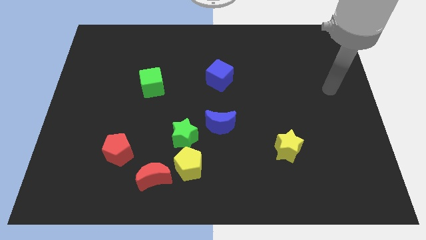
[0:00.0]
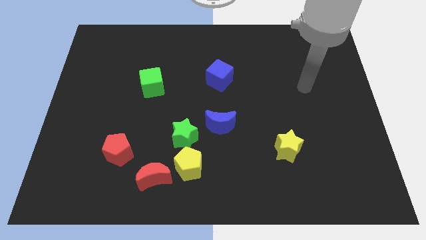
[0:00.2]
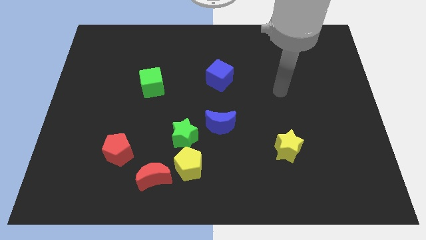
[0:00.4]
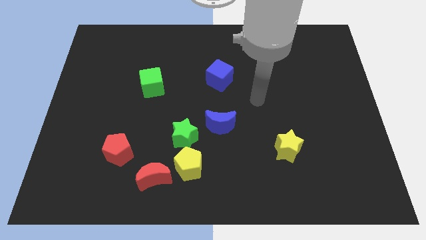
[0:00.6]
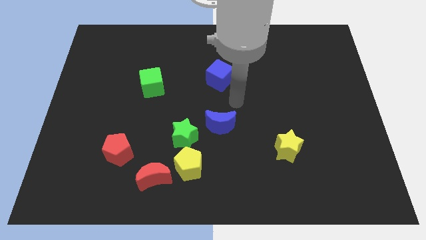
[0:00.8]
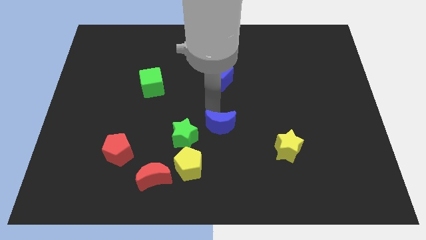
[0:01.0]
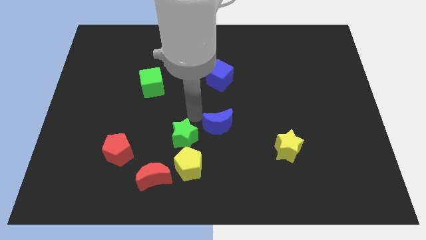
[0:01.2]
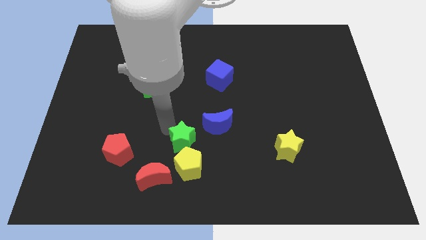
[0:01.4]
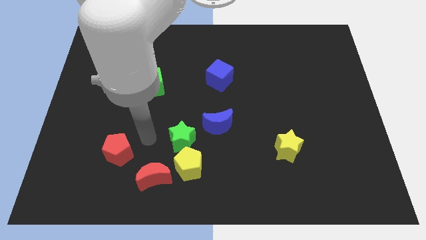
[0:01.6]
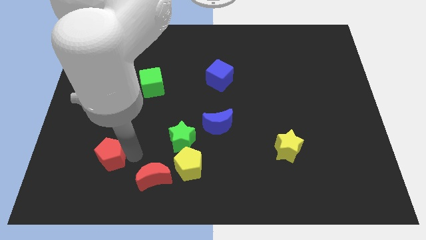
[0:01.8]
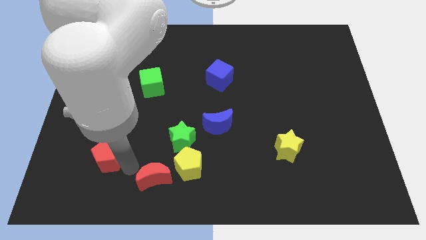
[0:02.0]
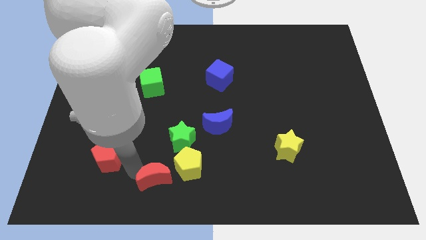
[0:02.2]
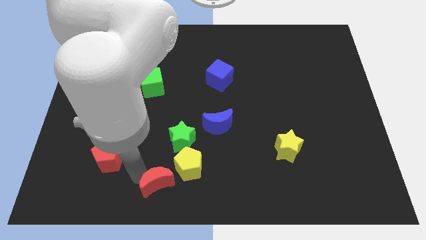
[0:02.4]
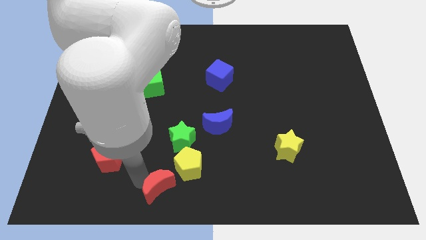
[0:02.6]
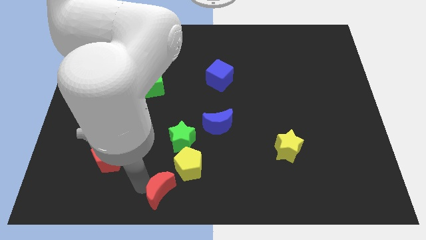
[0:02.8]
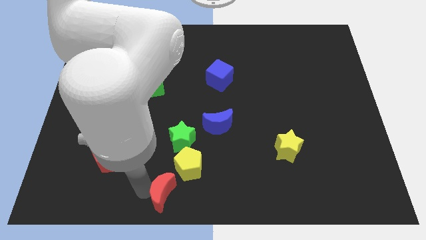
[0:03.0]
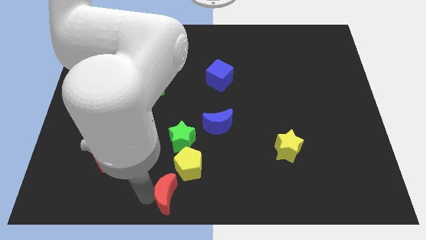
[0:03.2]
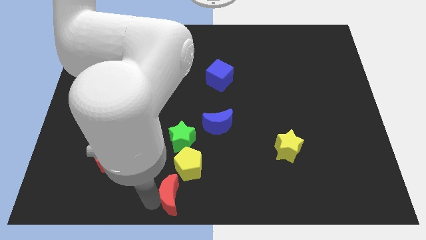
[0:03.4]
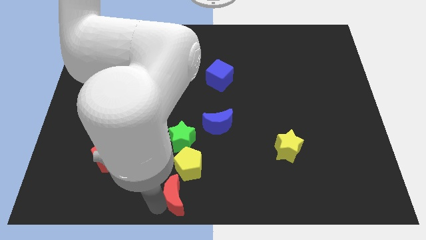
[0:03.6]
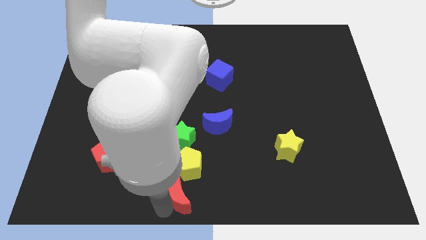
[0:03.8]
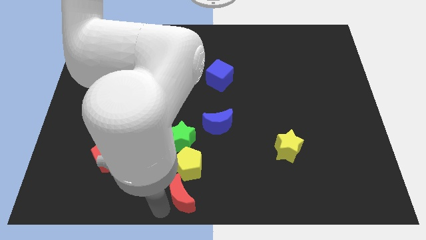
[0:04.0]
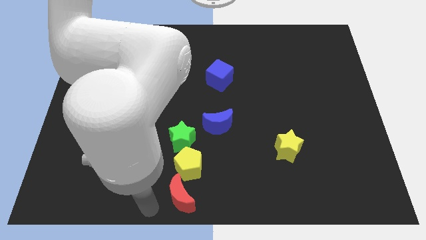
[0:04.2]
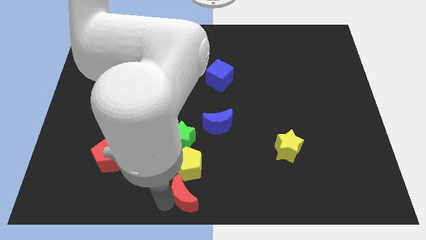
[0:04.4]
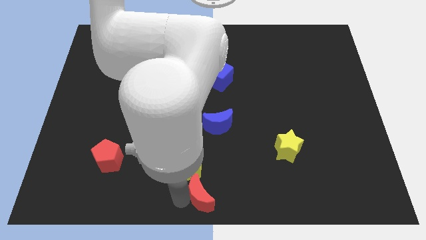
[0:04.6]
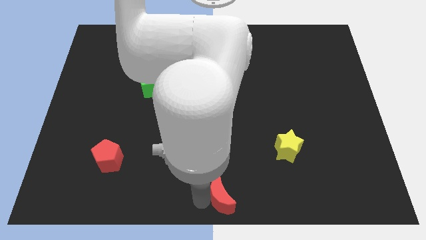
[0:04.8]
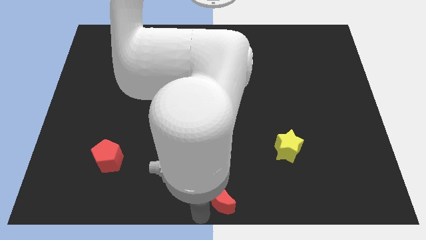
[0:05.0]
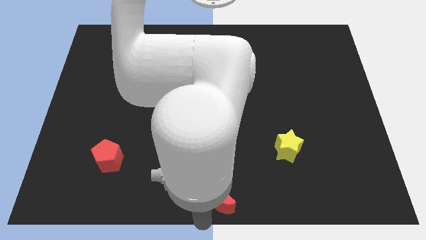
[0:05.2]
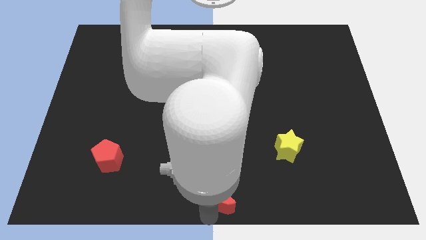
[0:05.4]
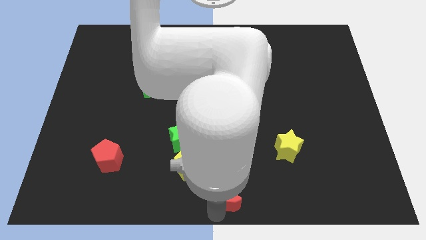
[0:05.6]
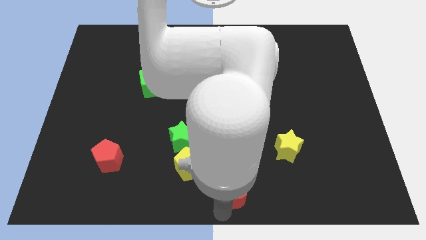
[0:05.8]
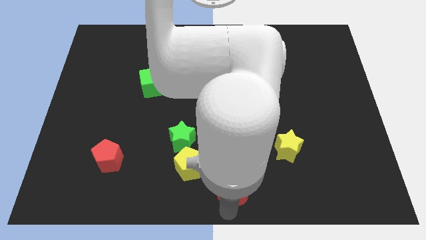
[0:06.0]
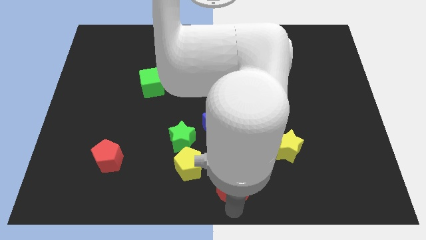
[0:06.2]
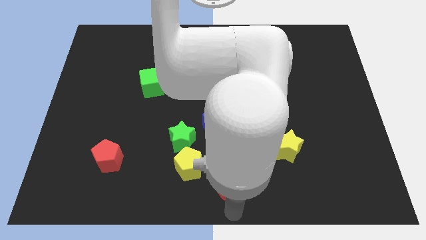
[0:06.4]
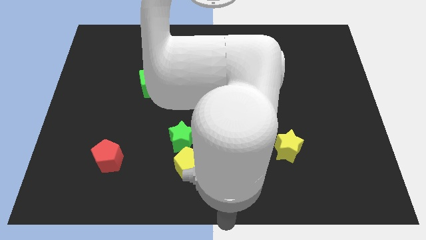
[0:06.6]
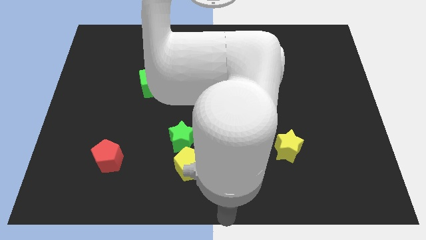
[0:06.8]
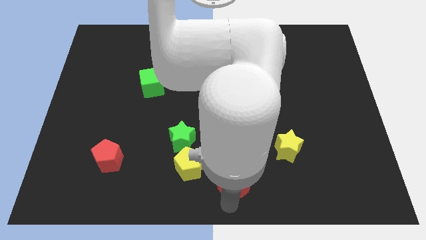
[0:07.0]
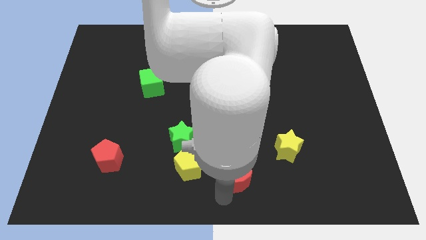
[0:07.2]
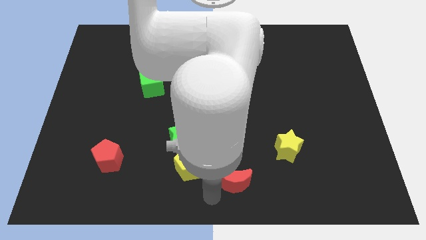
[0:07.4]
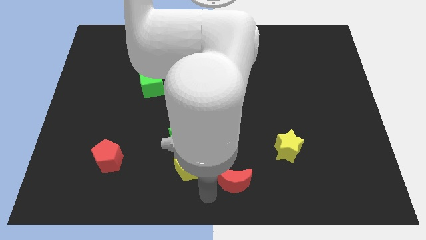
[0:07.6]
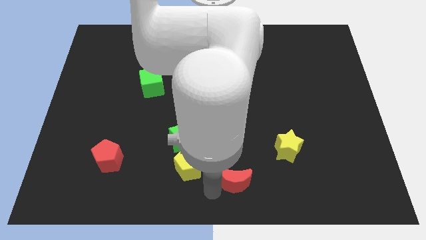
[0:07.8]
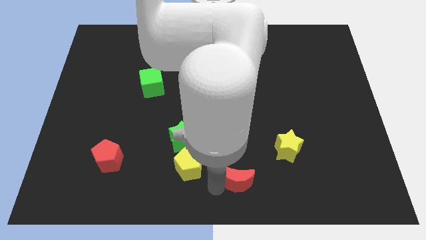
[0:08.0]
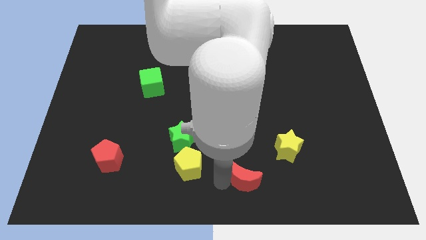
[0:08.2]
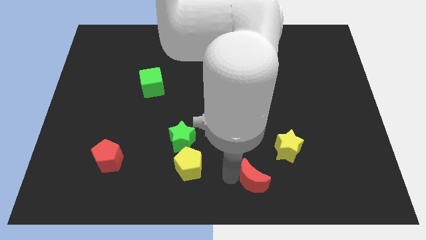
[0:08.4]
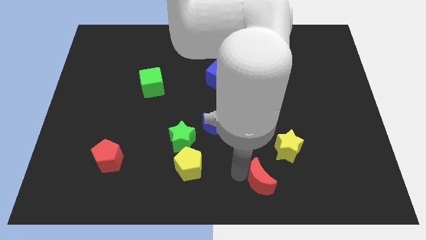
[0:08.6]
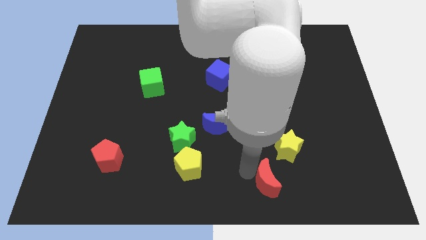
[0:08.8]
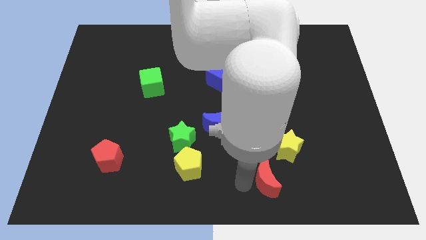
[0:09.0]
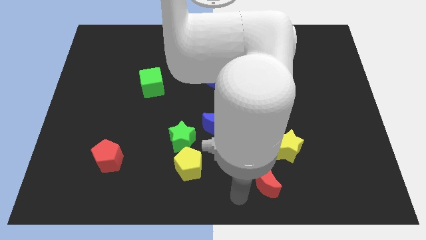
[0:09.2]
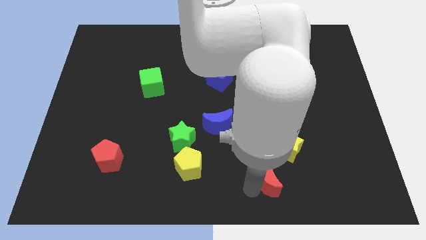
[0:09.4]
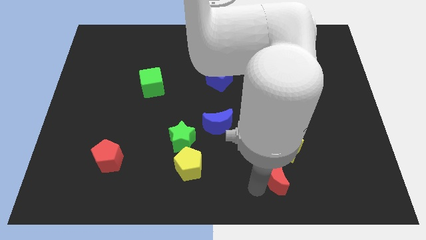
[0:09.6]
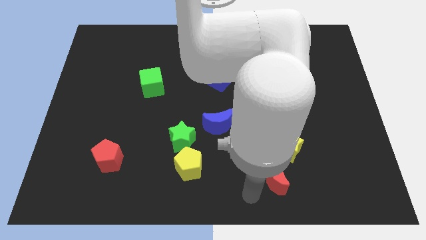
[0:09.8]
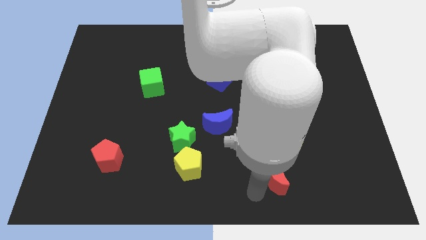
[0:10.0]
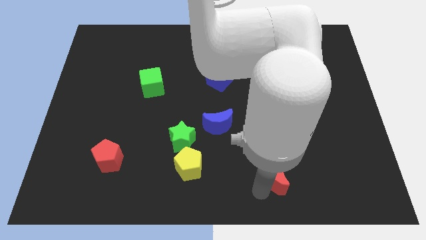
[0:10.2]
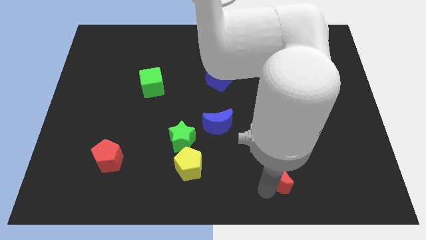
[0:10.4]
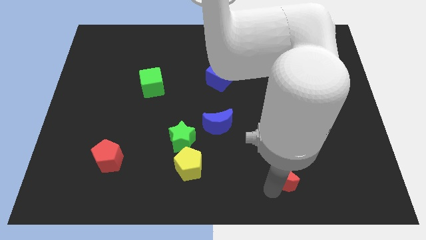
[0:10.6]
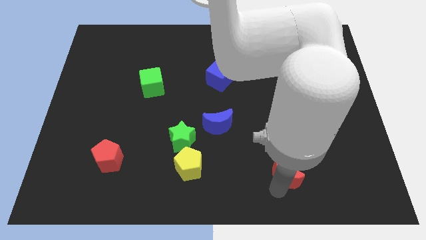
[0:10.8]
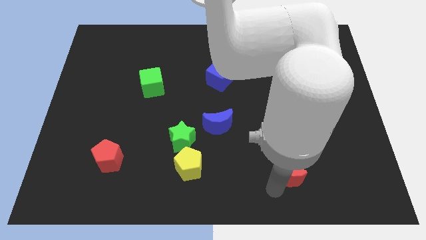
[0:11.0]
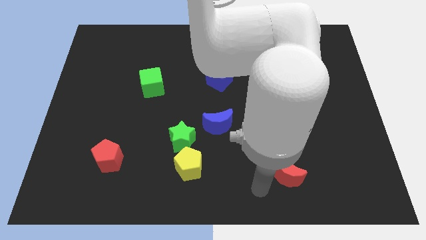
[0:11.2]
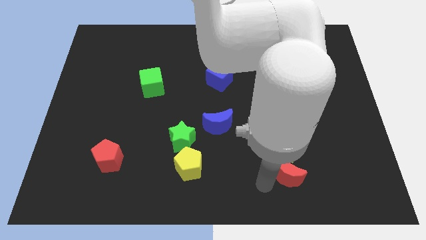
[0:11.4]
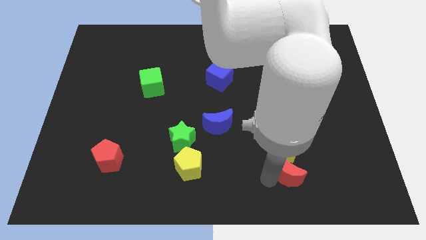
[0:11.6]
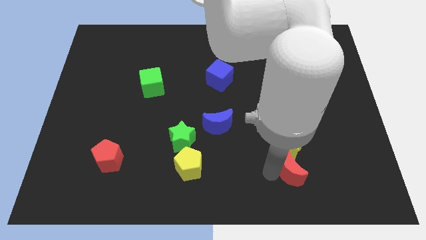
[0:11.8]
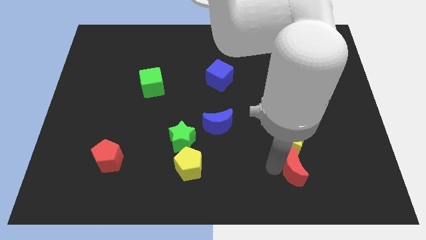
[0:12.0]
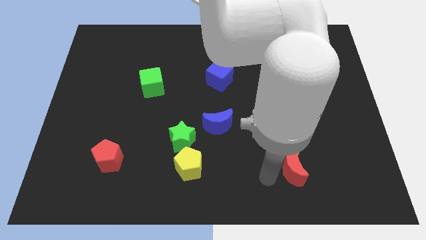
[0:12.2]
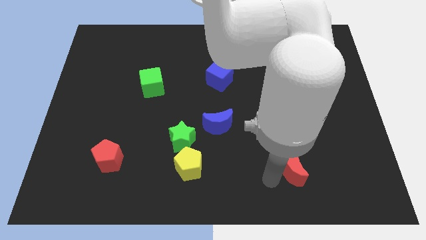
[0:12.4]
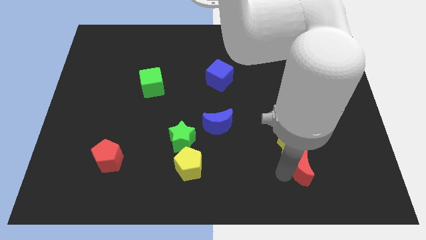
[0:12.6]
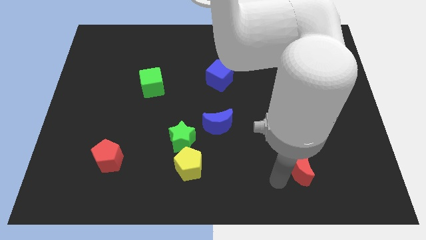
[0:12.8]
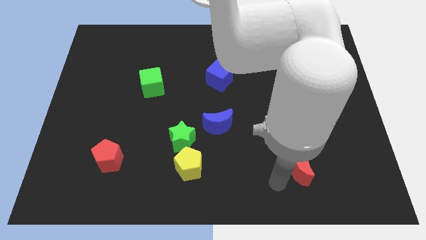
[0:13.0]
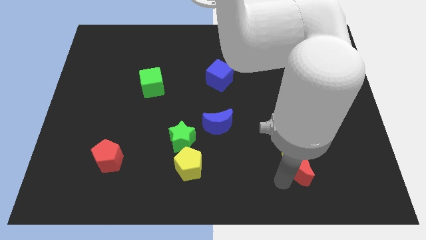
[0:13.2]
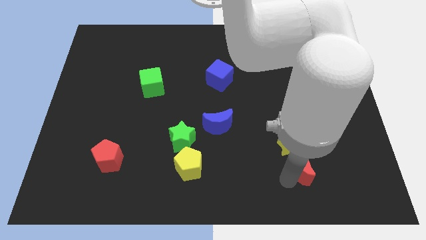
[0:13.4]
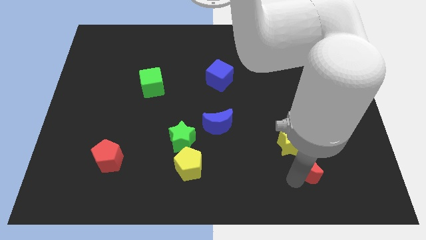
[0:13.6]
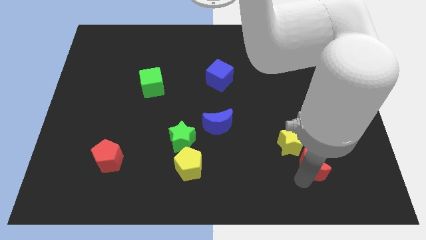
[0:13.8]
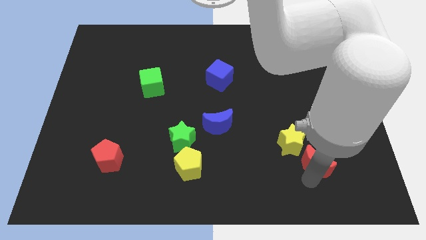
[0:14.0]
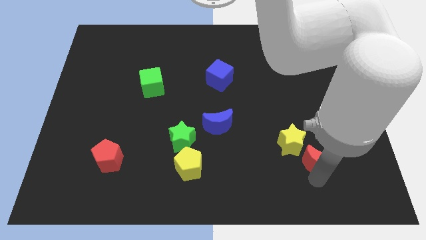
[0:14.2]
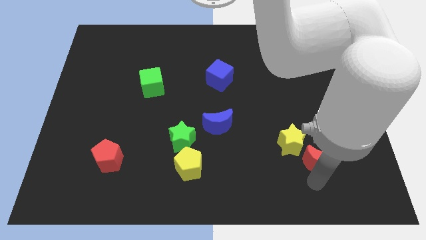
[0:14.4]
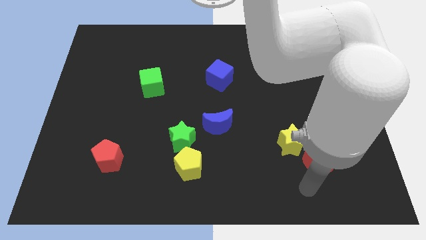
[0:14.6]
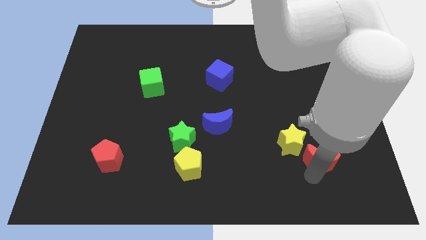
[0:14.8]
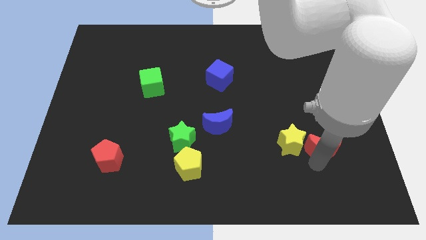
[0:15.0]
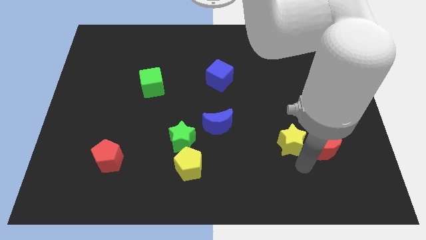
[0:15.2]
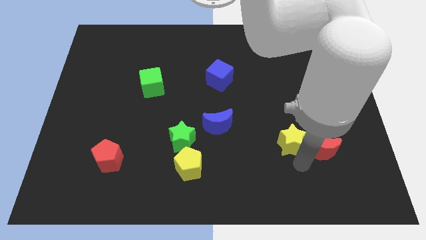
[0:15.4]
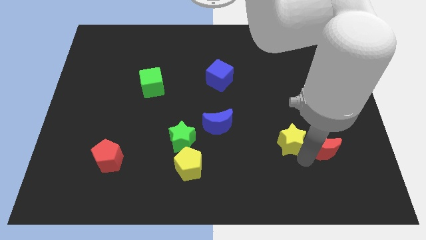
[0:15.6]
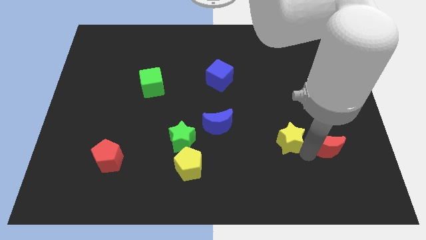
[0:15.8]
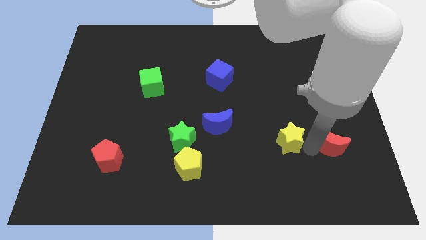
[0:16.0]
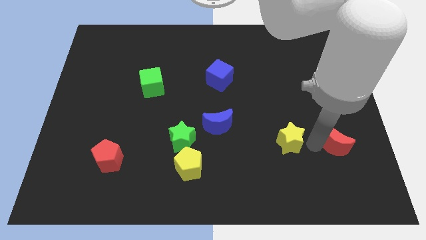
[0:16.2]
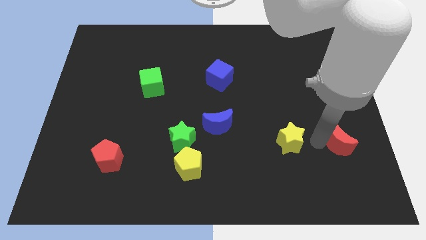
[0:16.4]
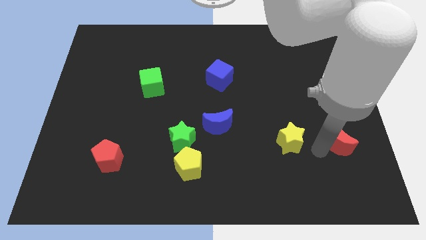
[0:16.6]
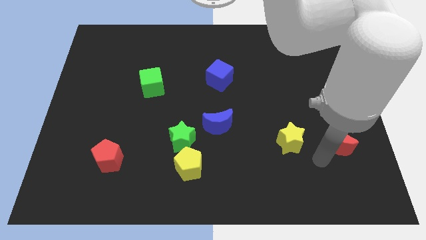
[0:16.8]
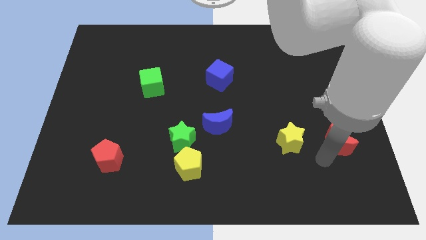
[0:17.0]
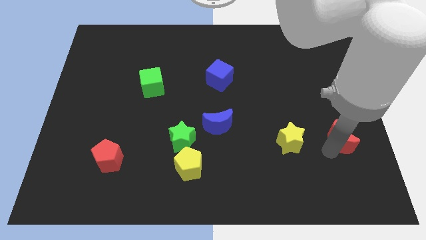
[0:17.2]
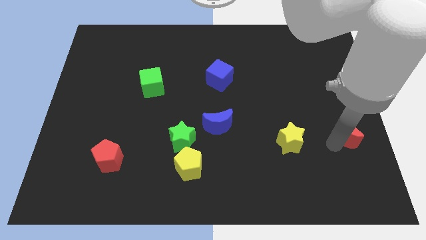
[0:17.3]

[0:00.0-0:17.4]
put the red moon to the right side of the board
